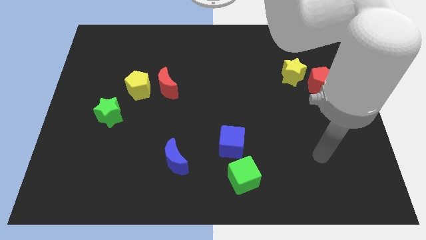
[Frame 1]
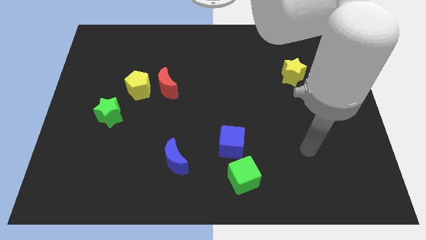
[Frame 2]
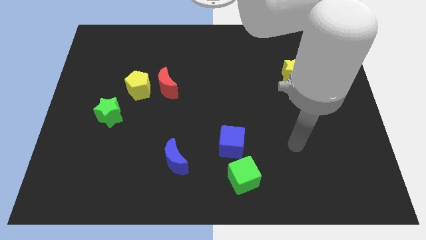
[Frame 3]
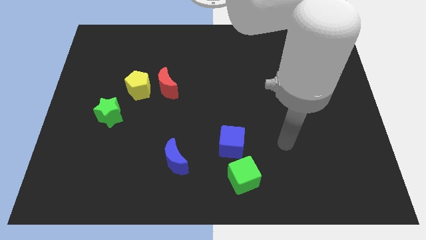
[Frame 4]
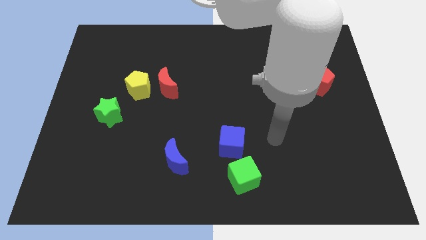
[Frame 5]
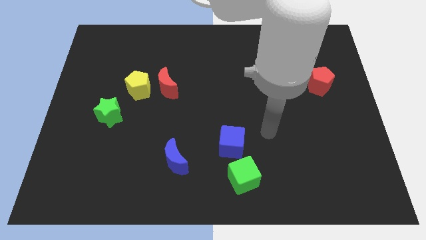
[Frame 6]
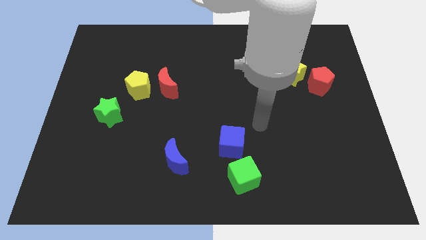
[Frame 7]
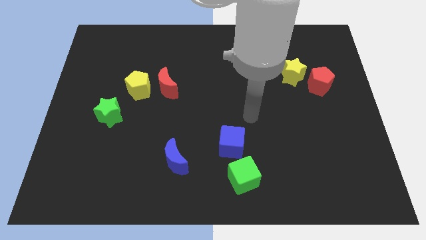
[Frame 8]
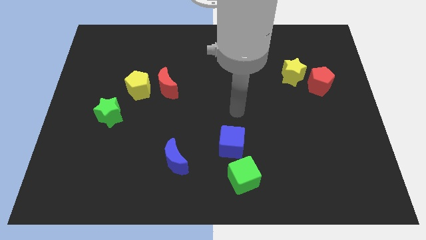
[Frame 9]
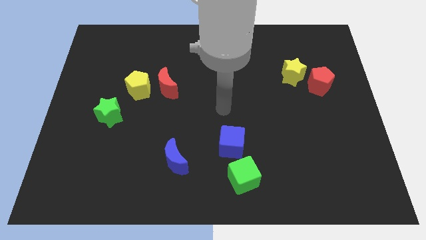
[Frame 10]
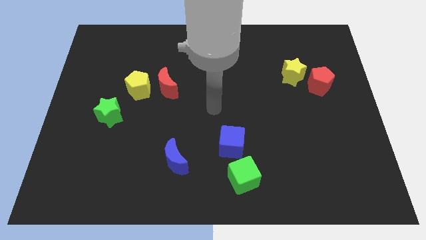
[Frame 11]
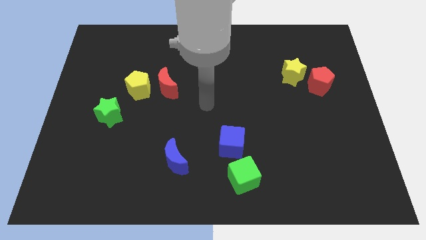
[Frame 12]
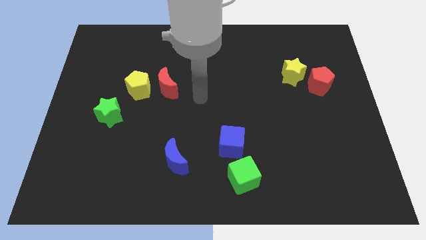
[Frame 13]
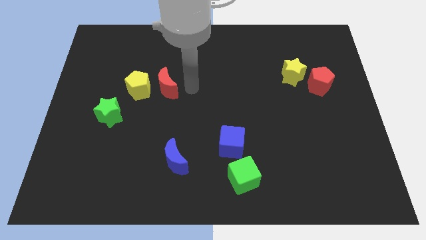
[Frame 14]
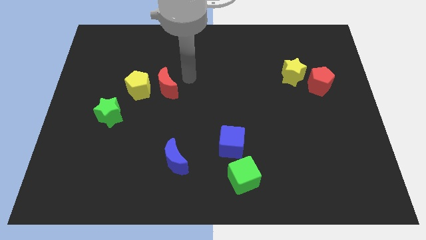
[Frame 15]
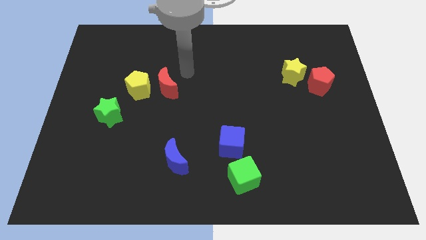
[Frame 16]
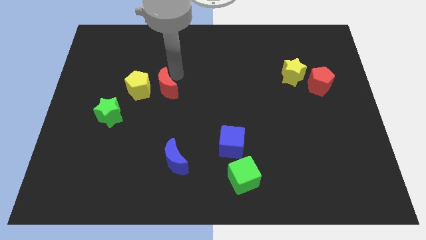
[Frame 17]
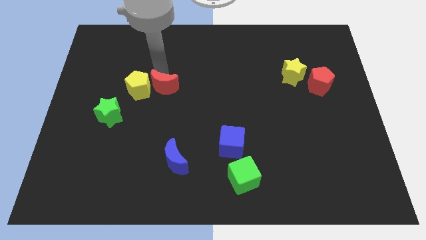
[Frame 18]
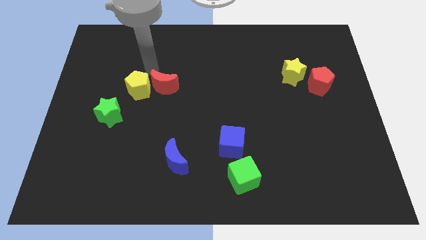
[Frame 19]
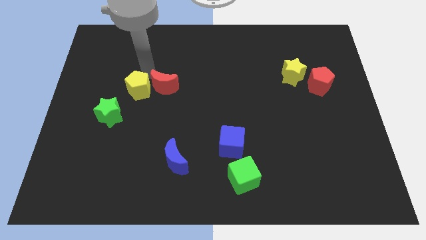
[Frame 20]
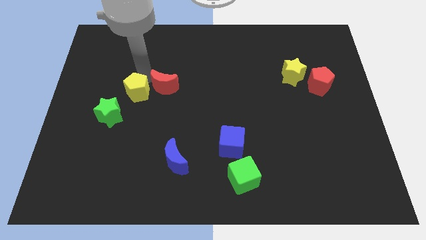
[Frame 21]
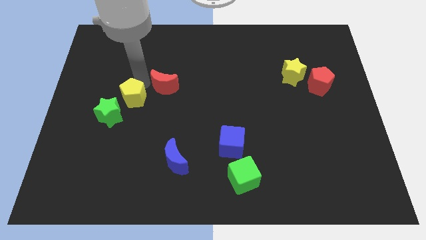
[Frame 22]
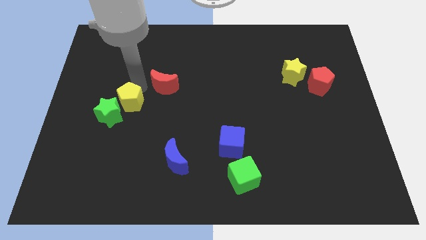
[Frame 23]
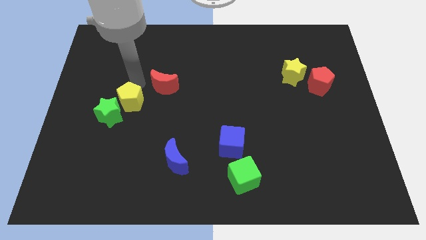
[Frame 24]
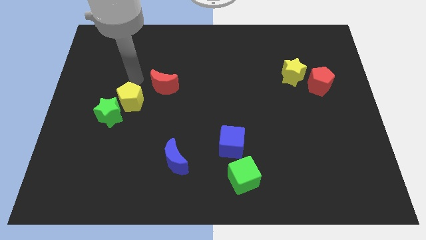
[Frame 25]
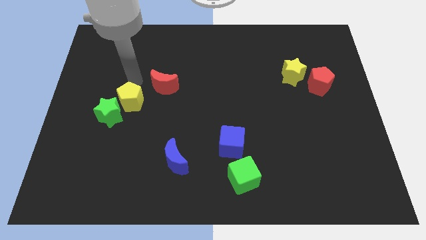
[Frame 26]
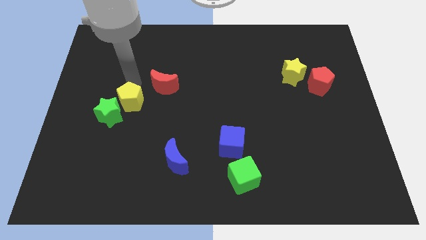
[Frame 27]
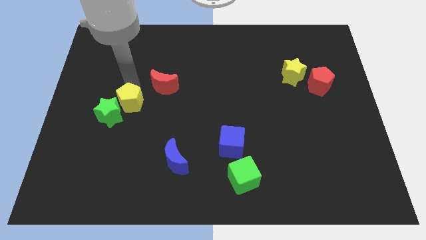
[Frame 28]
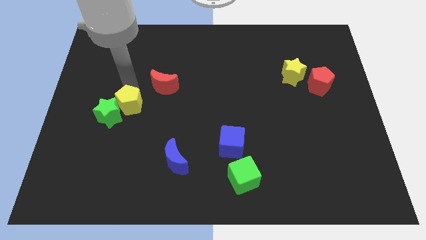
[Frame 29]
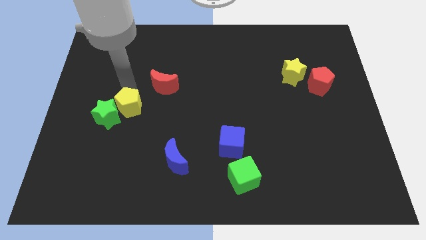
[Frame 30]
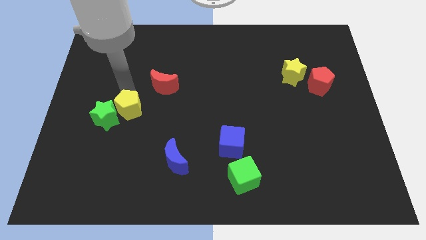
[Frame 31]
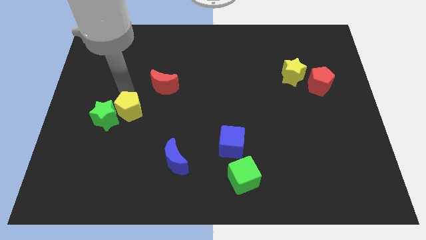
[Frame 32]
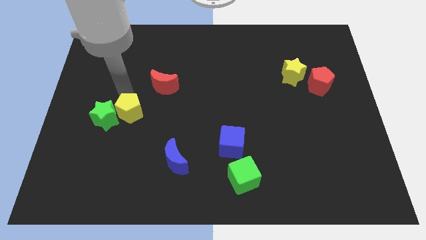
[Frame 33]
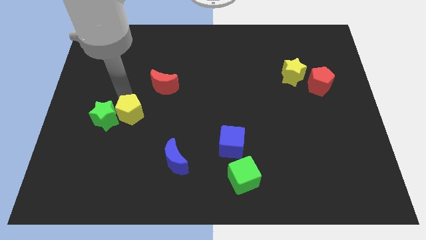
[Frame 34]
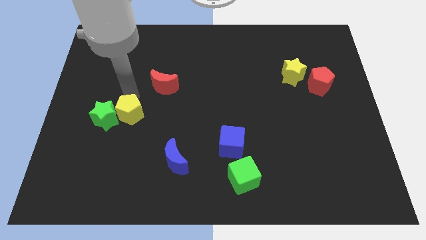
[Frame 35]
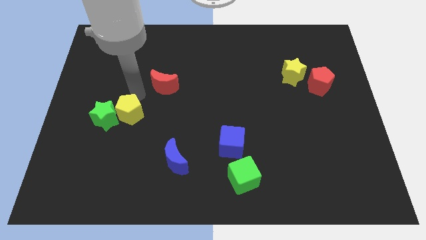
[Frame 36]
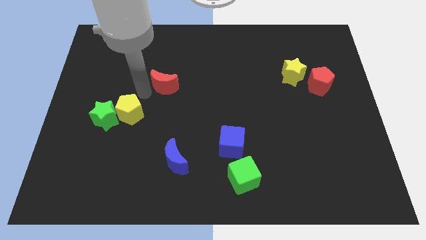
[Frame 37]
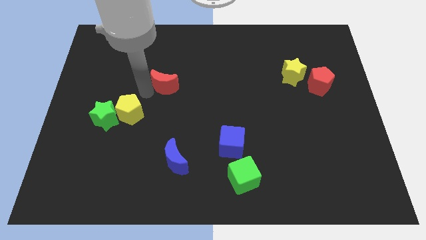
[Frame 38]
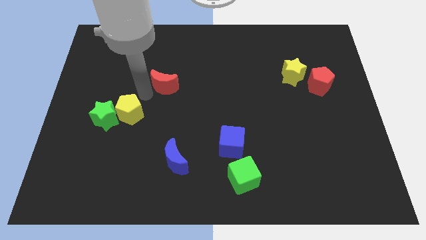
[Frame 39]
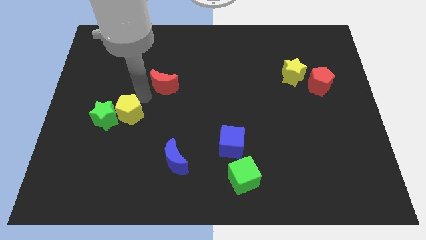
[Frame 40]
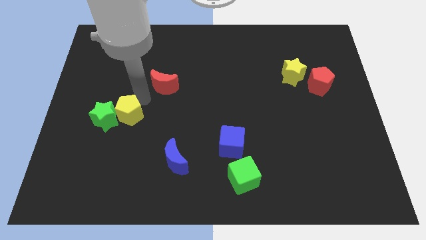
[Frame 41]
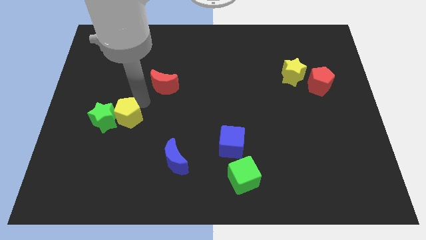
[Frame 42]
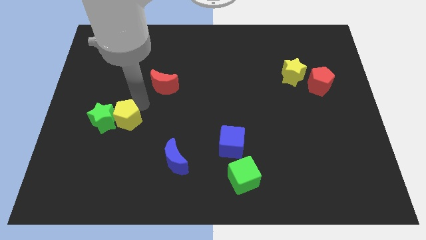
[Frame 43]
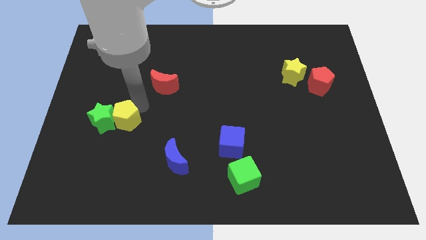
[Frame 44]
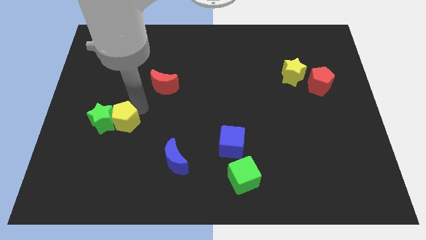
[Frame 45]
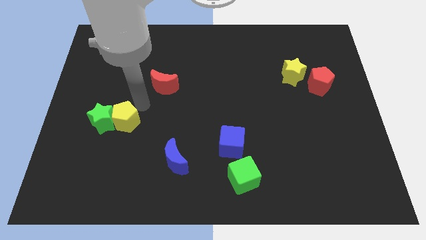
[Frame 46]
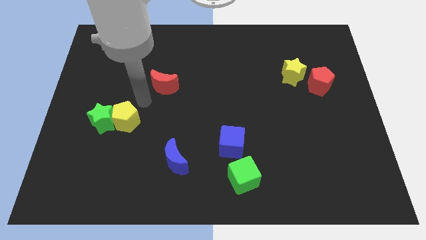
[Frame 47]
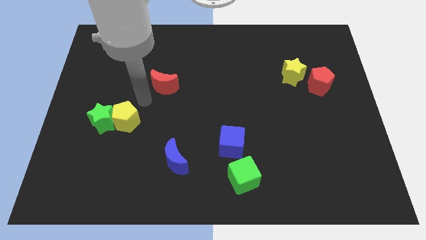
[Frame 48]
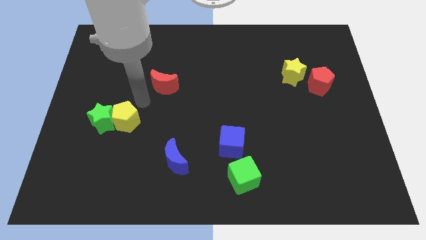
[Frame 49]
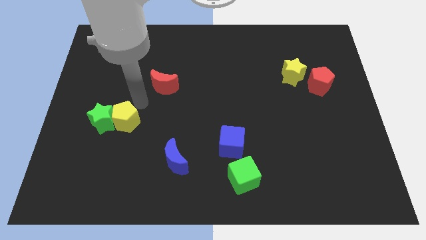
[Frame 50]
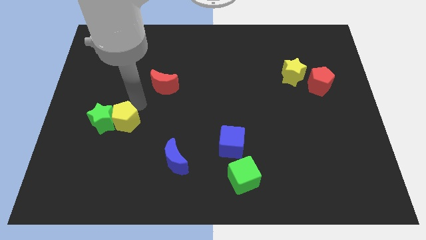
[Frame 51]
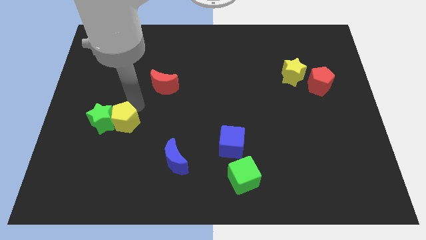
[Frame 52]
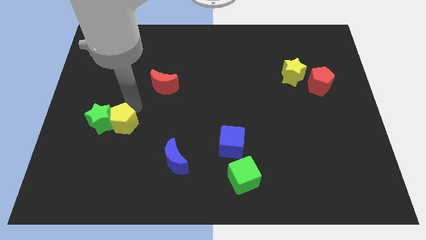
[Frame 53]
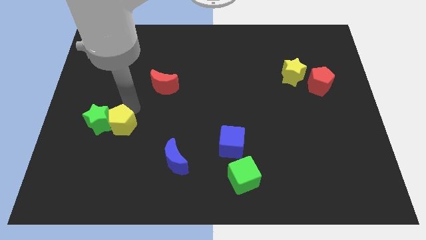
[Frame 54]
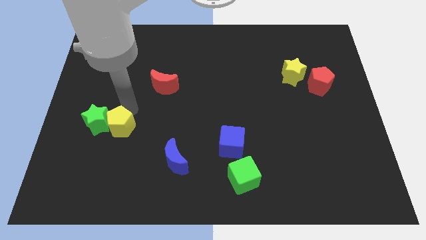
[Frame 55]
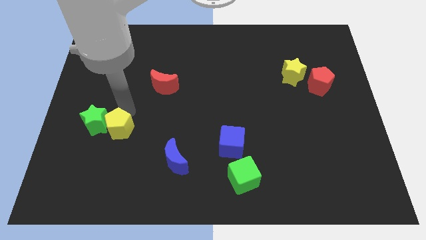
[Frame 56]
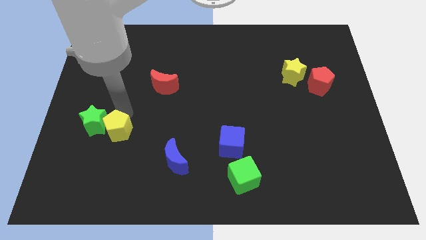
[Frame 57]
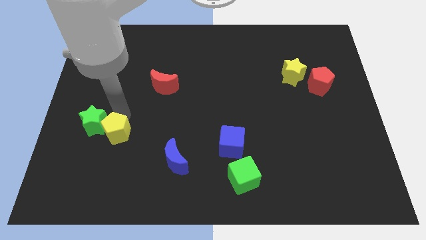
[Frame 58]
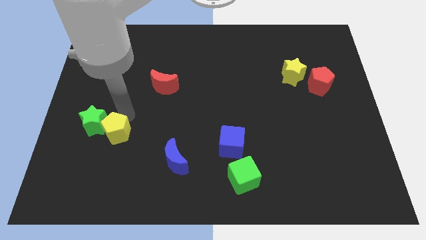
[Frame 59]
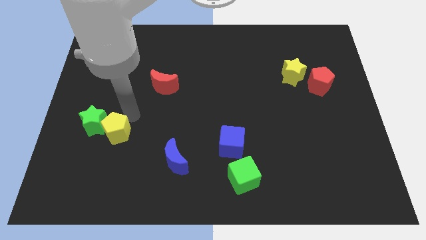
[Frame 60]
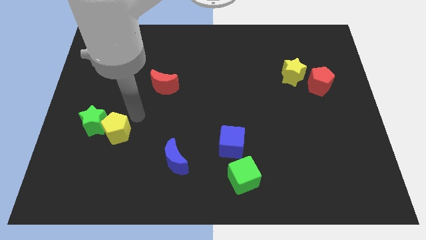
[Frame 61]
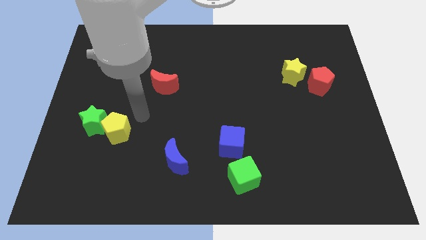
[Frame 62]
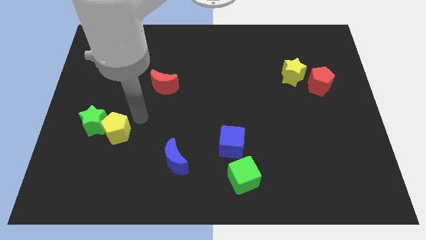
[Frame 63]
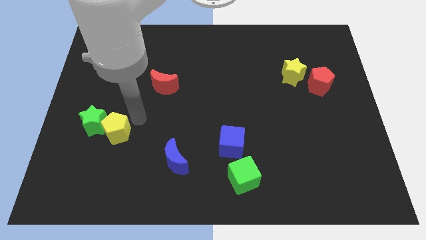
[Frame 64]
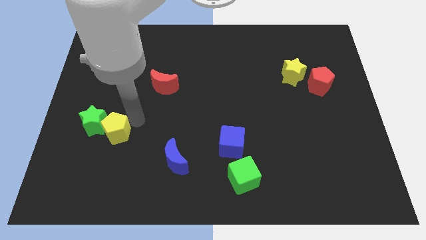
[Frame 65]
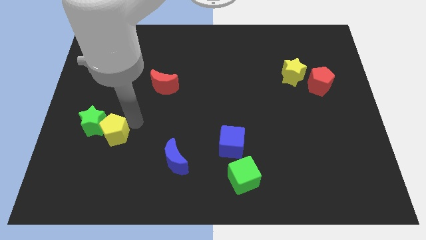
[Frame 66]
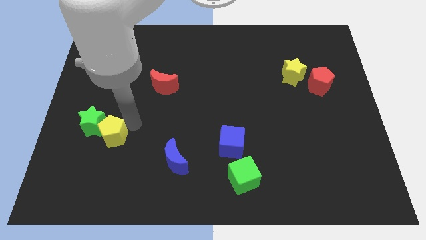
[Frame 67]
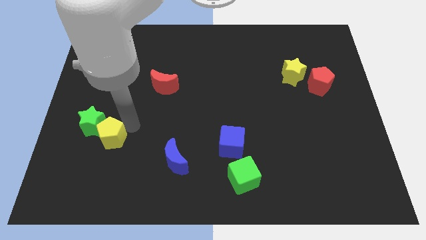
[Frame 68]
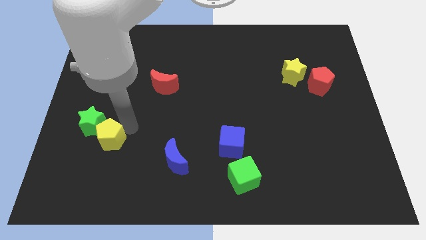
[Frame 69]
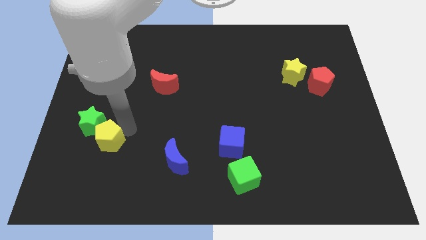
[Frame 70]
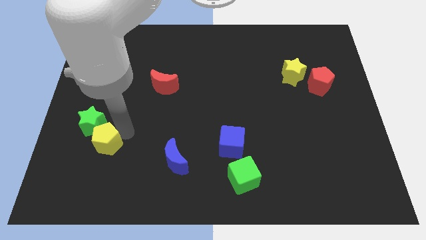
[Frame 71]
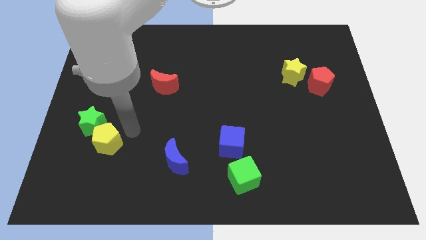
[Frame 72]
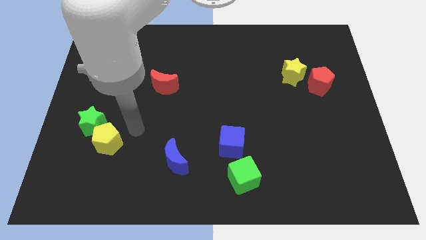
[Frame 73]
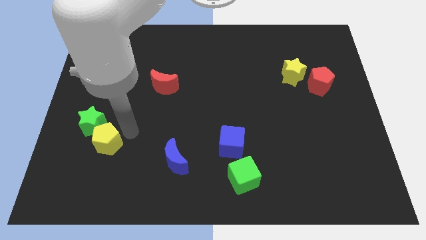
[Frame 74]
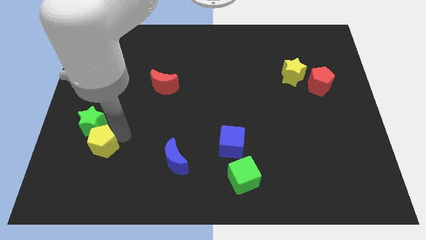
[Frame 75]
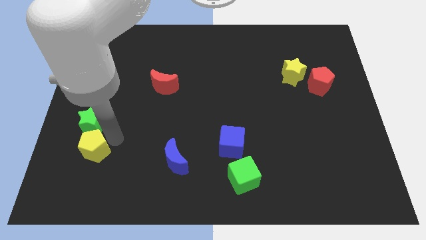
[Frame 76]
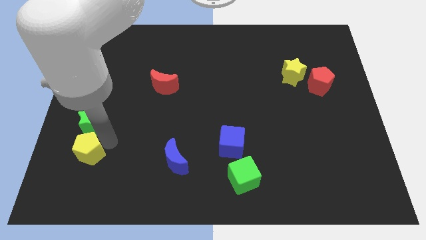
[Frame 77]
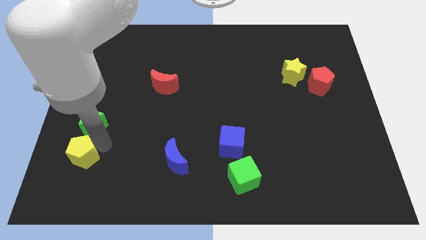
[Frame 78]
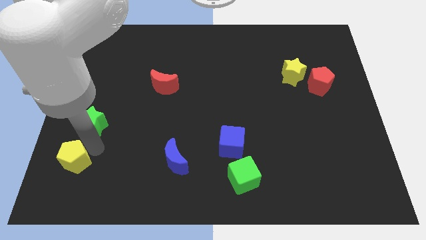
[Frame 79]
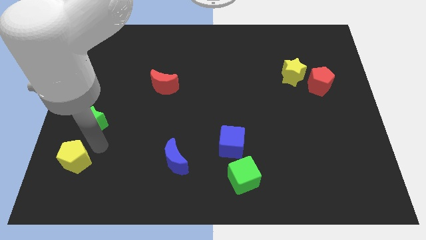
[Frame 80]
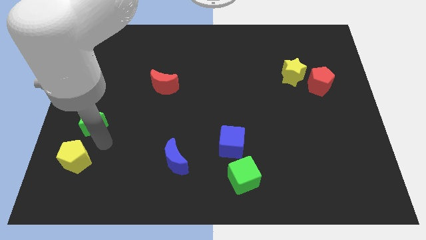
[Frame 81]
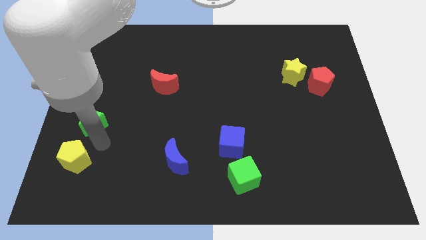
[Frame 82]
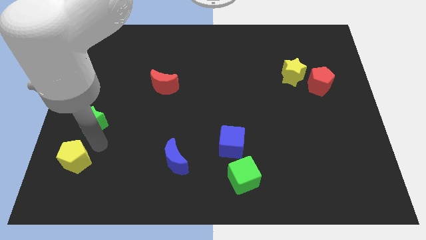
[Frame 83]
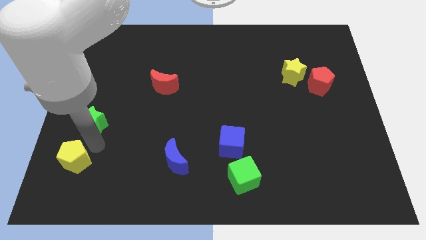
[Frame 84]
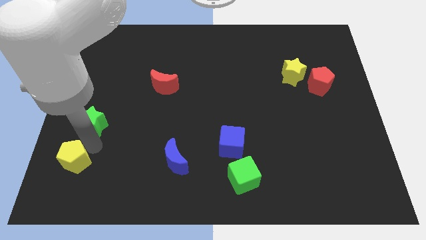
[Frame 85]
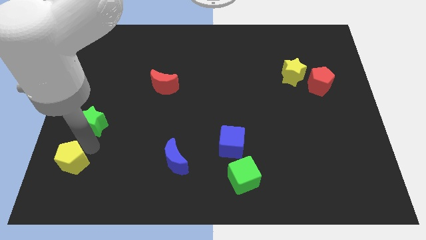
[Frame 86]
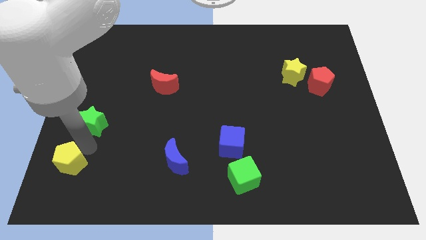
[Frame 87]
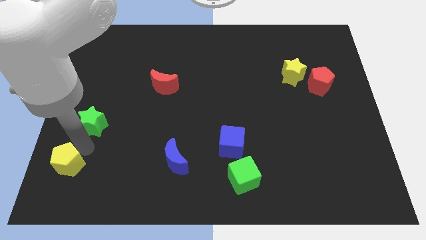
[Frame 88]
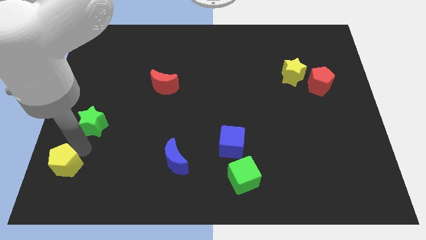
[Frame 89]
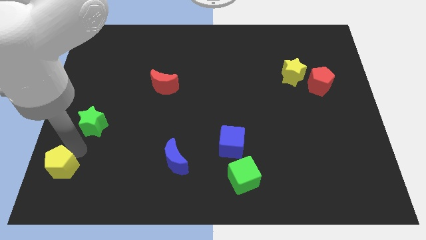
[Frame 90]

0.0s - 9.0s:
push the yellow pentagon to the bottom left
